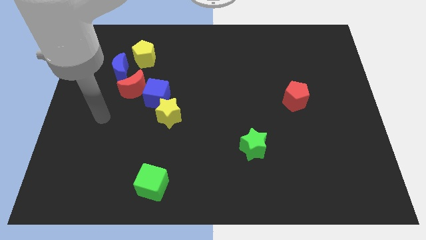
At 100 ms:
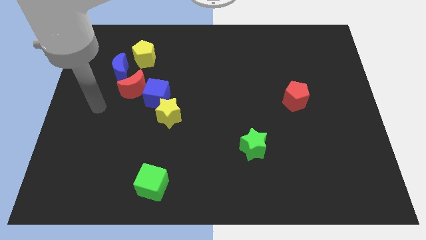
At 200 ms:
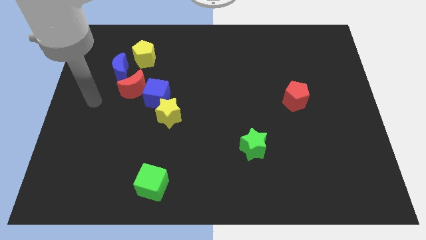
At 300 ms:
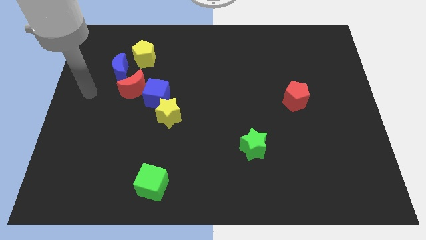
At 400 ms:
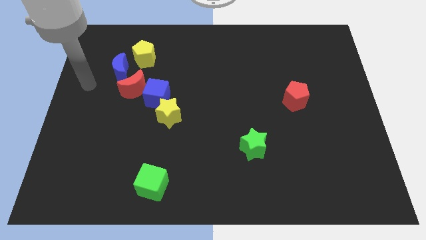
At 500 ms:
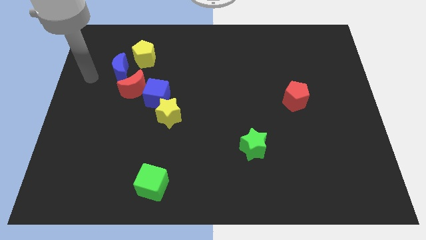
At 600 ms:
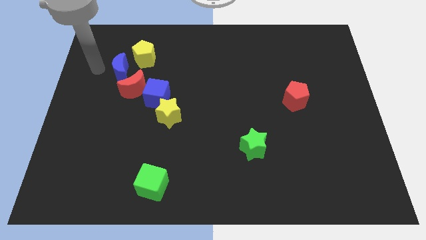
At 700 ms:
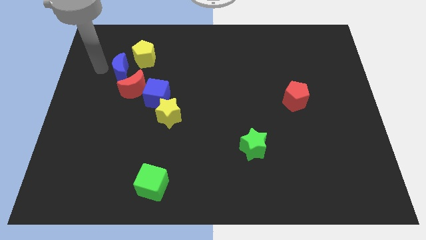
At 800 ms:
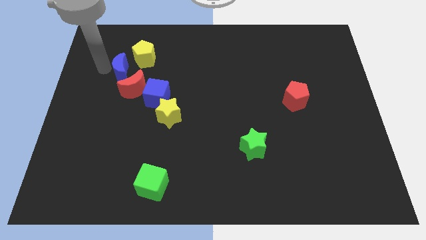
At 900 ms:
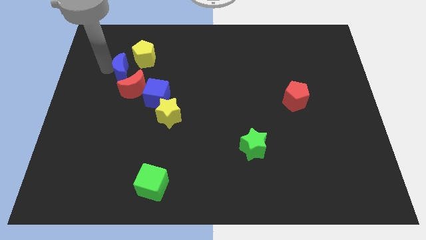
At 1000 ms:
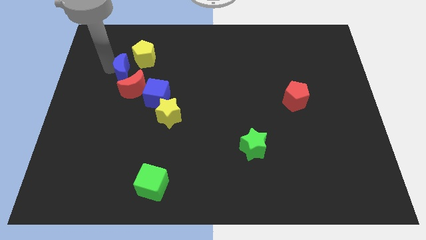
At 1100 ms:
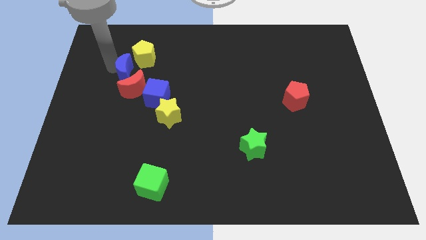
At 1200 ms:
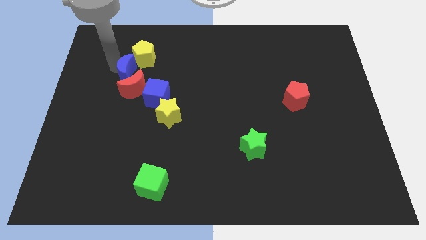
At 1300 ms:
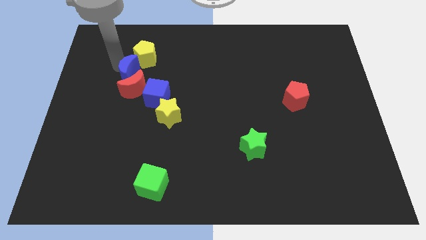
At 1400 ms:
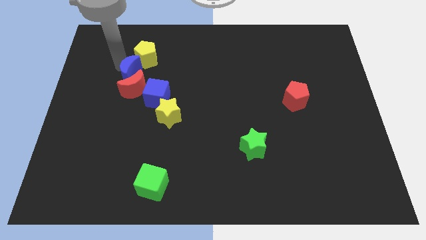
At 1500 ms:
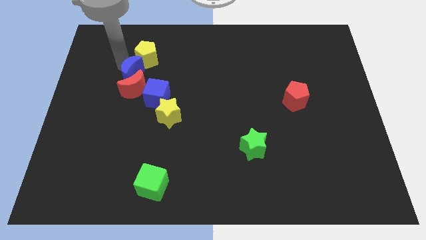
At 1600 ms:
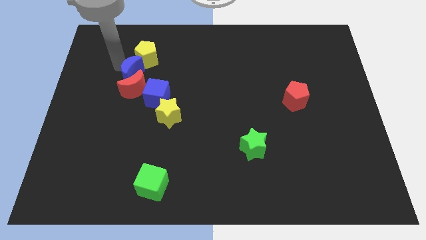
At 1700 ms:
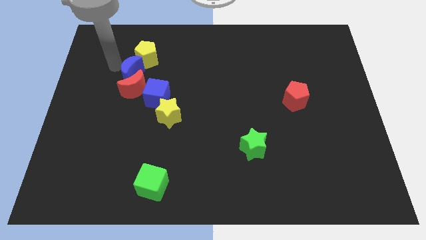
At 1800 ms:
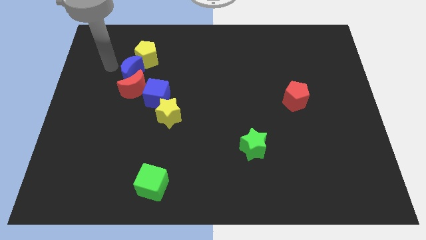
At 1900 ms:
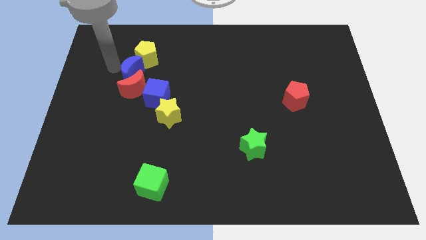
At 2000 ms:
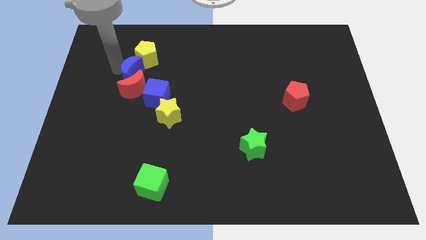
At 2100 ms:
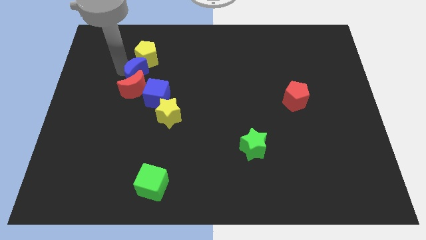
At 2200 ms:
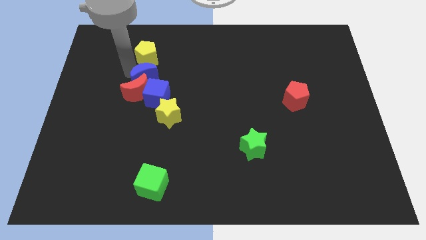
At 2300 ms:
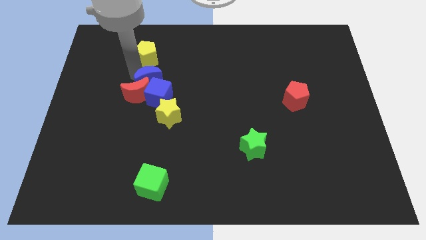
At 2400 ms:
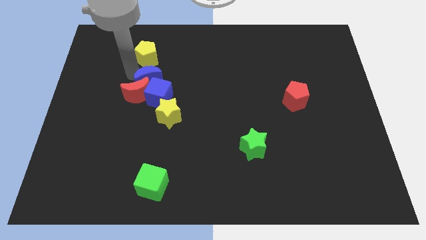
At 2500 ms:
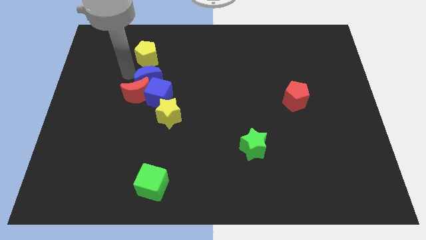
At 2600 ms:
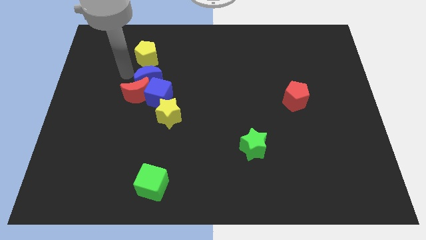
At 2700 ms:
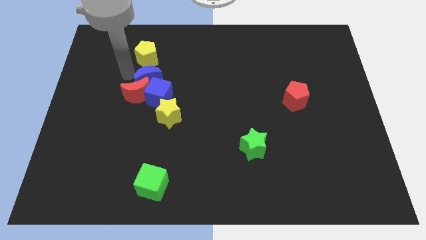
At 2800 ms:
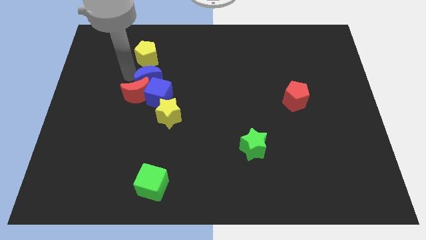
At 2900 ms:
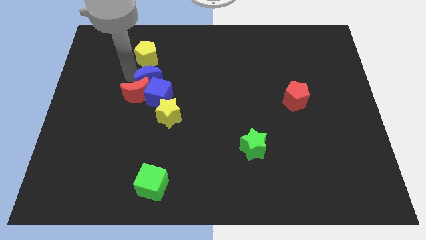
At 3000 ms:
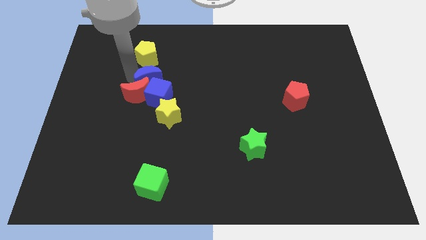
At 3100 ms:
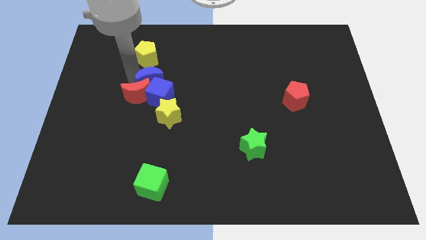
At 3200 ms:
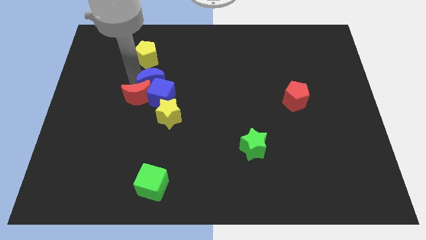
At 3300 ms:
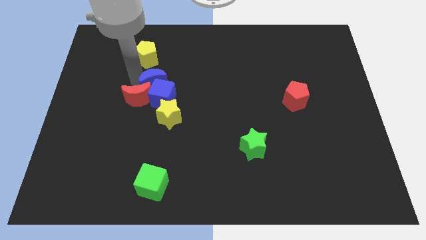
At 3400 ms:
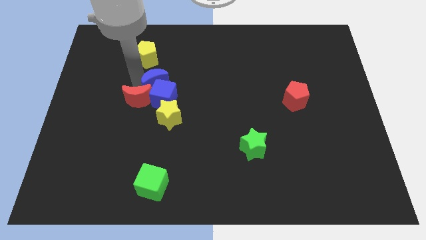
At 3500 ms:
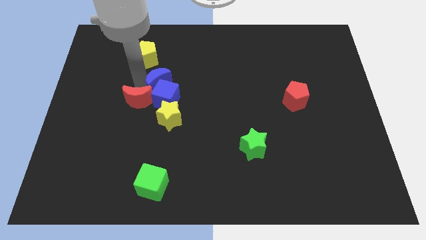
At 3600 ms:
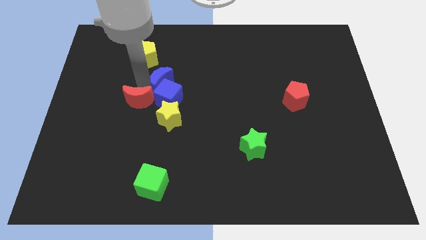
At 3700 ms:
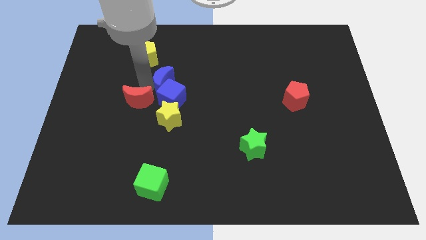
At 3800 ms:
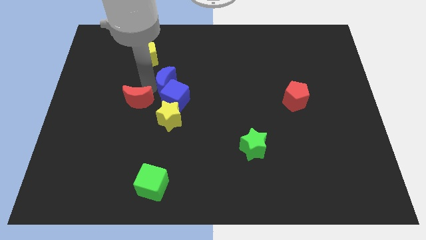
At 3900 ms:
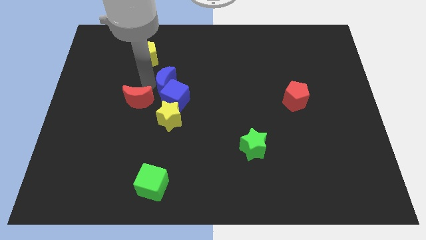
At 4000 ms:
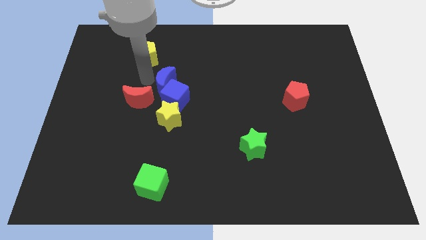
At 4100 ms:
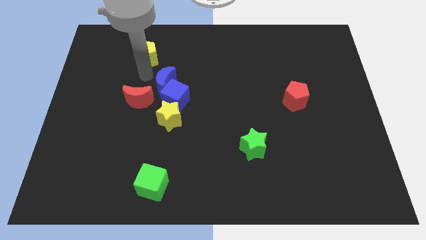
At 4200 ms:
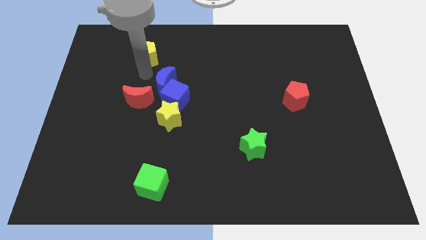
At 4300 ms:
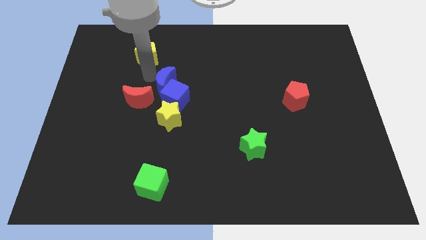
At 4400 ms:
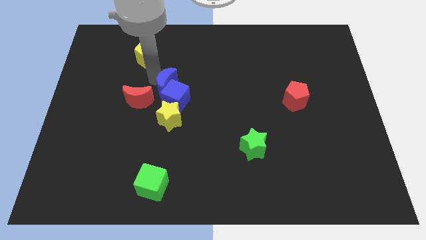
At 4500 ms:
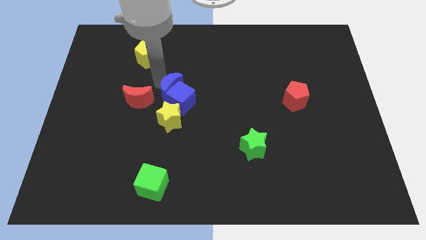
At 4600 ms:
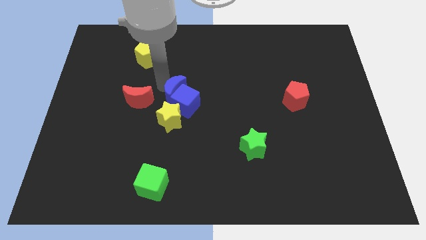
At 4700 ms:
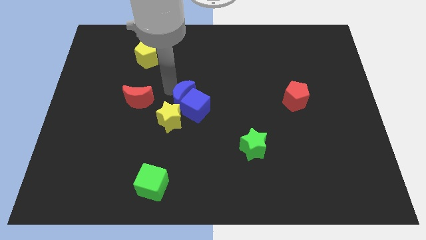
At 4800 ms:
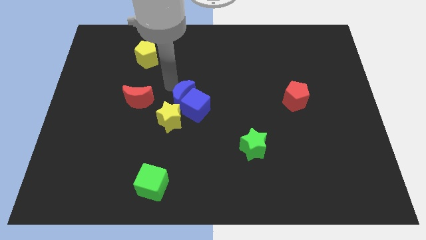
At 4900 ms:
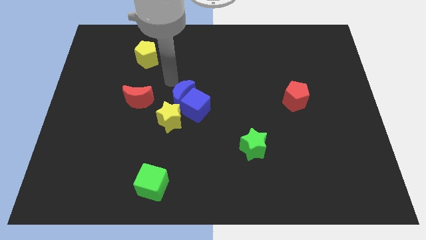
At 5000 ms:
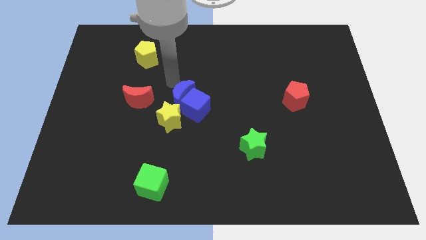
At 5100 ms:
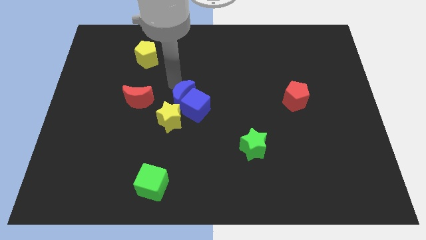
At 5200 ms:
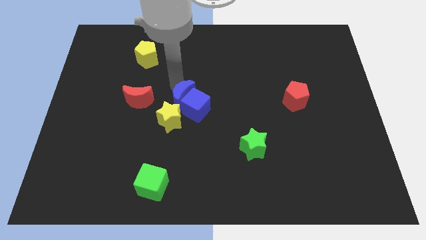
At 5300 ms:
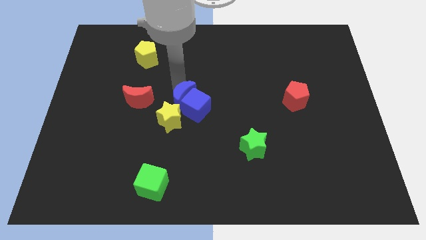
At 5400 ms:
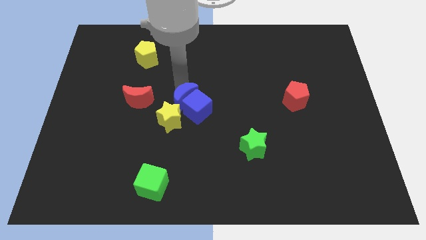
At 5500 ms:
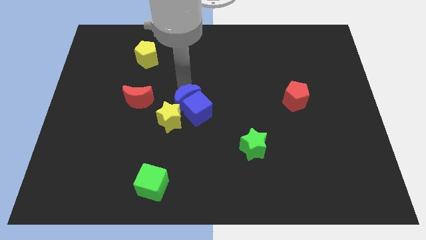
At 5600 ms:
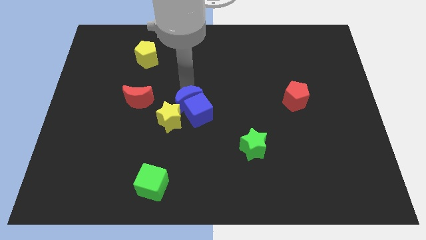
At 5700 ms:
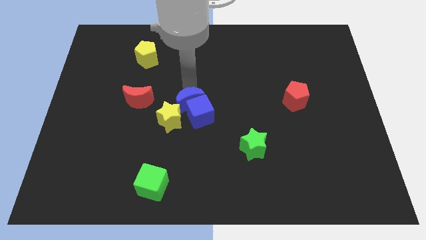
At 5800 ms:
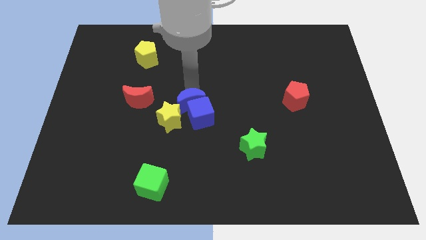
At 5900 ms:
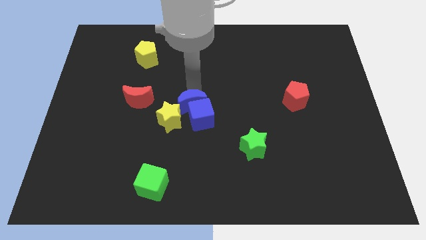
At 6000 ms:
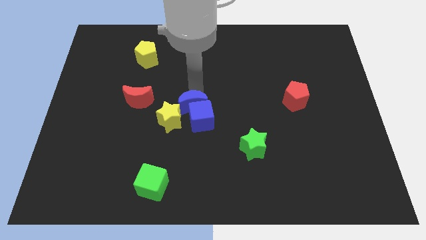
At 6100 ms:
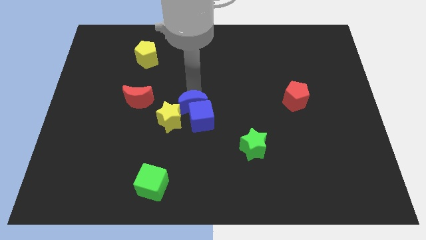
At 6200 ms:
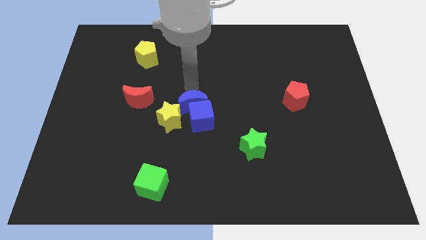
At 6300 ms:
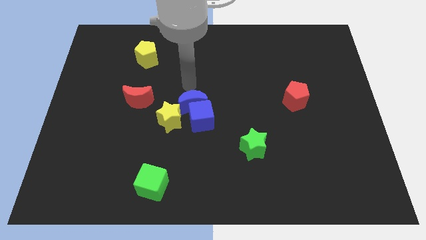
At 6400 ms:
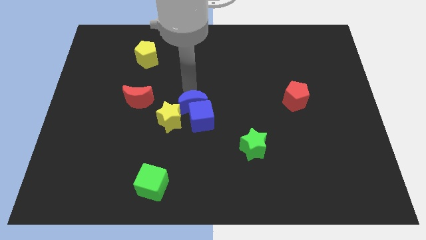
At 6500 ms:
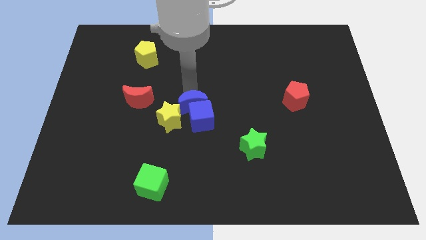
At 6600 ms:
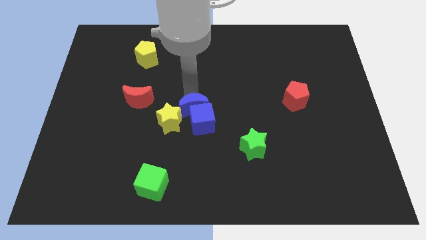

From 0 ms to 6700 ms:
push the blue moon diagonally down and right

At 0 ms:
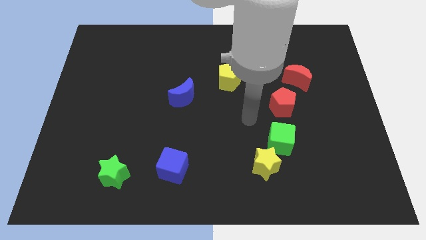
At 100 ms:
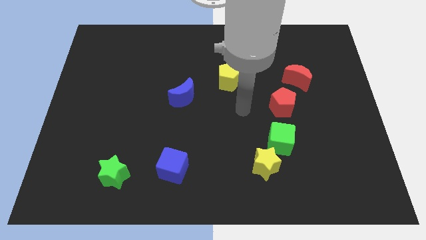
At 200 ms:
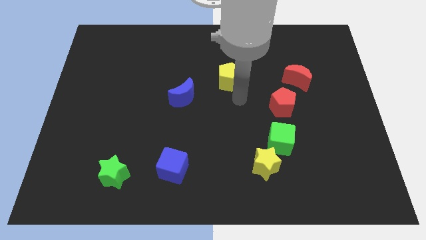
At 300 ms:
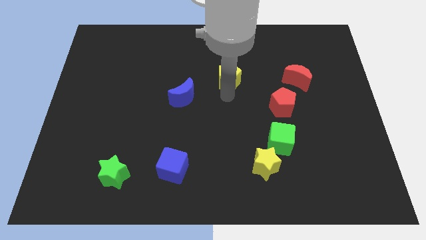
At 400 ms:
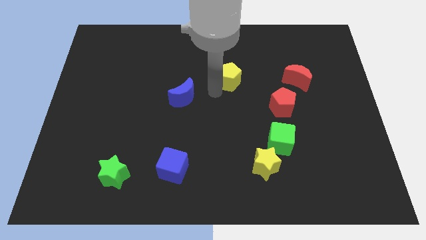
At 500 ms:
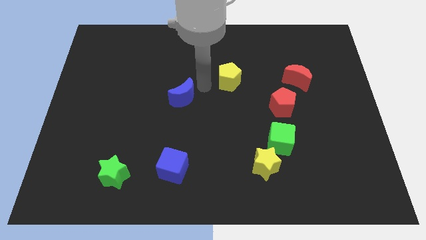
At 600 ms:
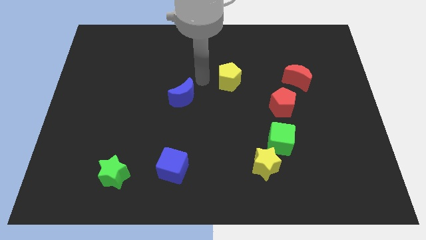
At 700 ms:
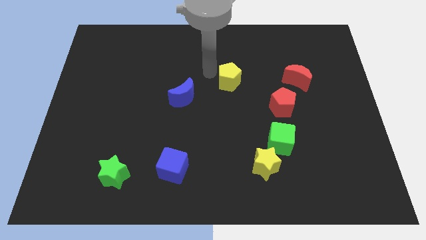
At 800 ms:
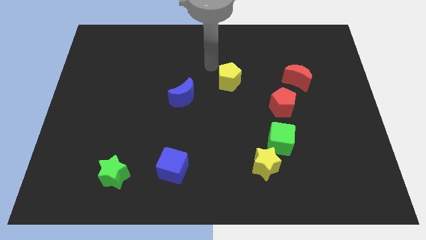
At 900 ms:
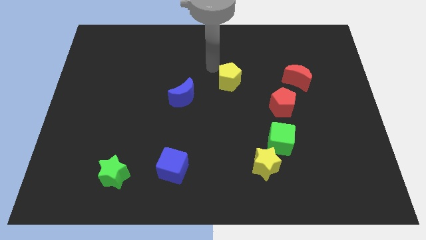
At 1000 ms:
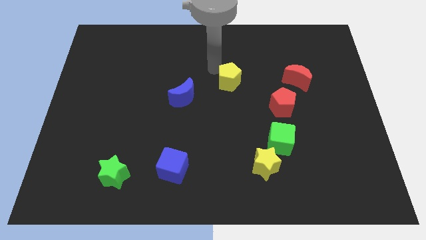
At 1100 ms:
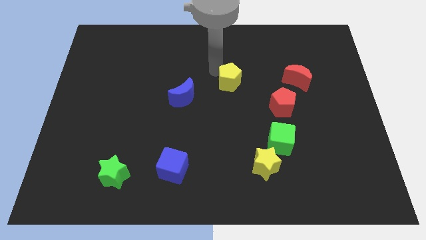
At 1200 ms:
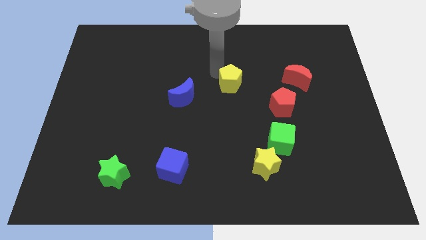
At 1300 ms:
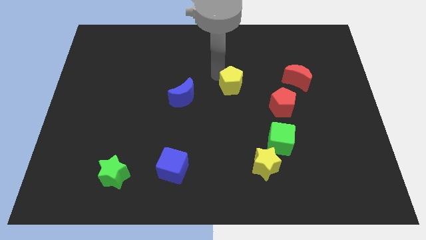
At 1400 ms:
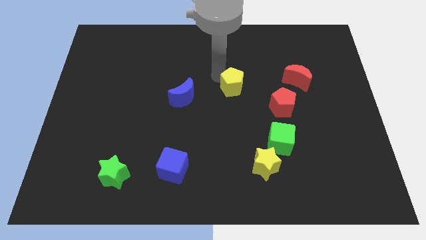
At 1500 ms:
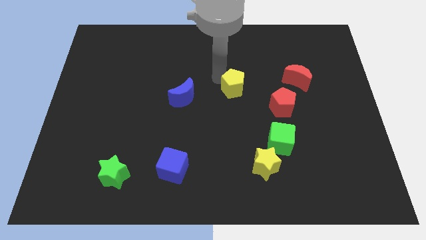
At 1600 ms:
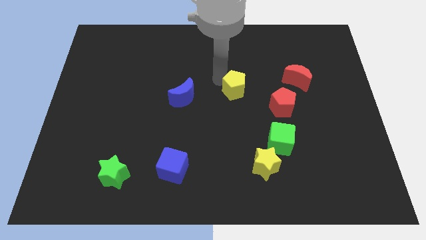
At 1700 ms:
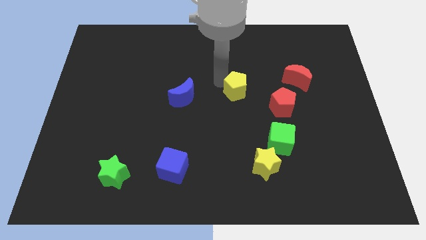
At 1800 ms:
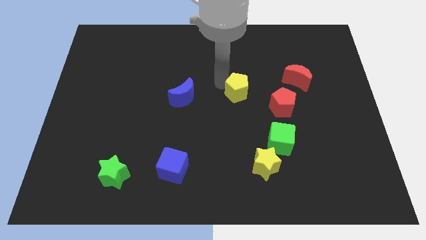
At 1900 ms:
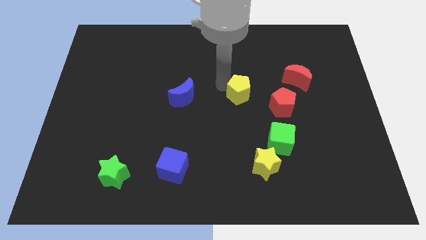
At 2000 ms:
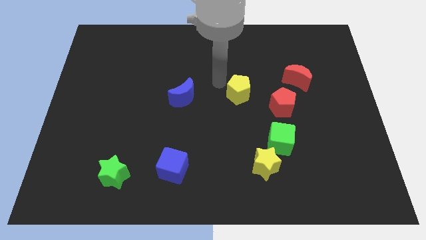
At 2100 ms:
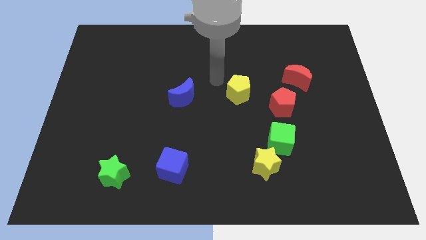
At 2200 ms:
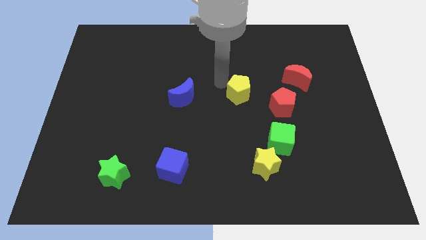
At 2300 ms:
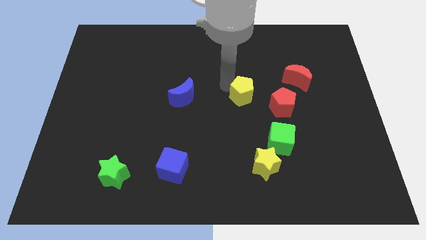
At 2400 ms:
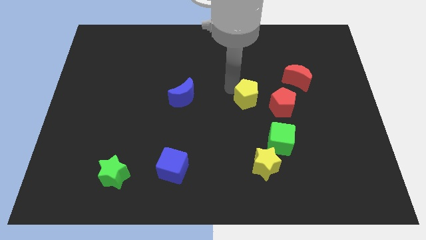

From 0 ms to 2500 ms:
move the yellow pentagon slightly diagonally down and to the right
